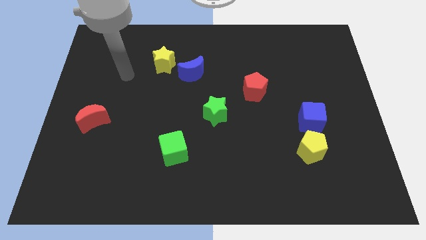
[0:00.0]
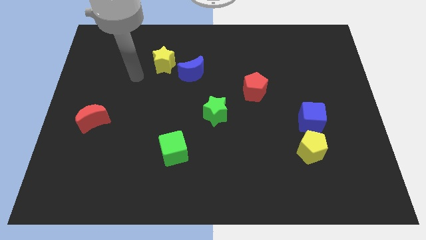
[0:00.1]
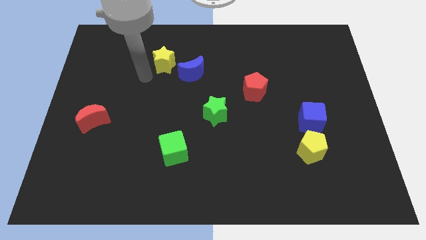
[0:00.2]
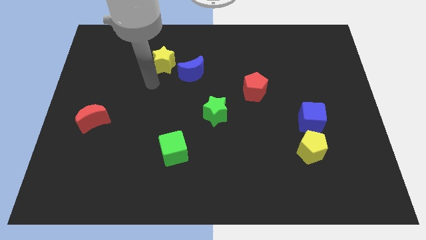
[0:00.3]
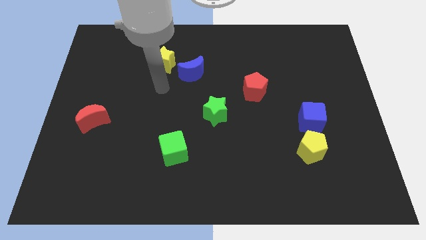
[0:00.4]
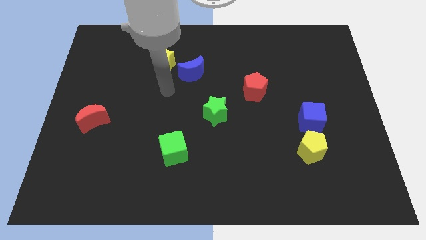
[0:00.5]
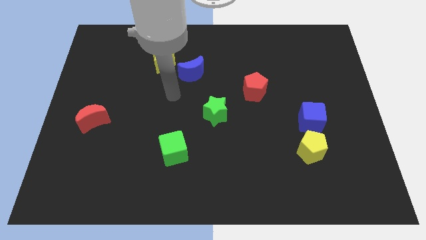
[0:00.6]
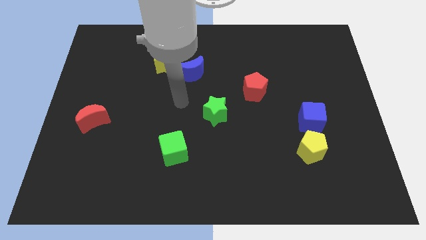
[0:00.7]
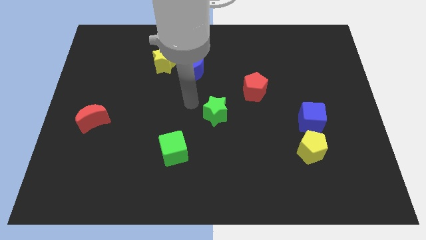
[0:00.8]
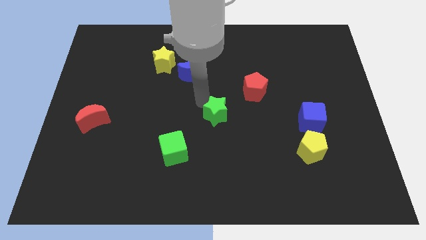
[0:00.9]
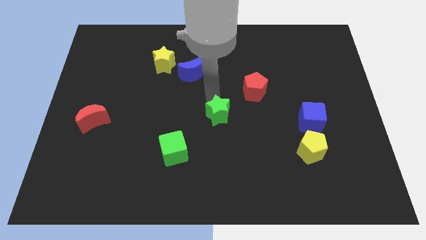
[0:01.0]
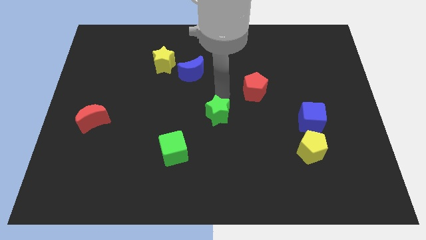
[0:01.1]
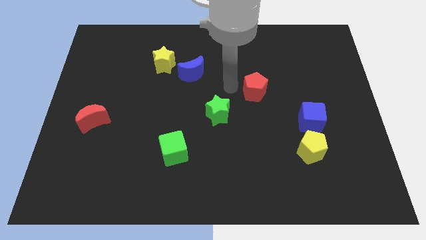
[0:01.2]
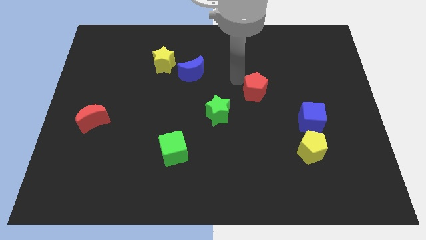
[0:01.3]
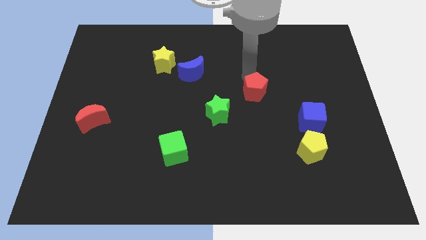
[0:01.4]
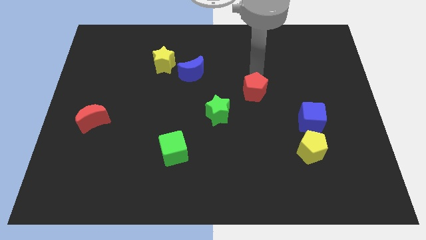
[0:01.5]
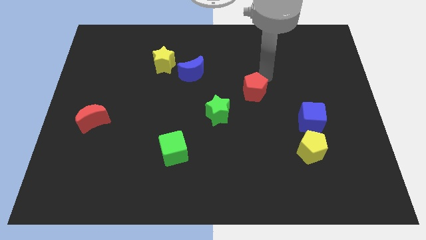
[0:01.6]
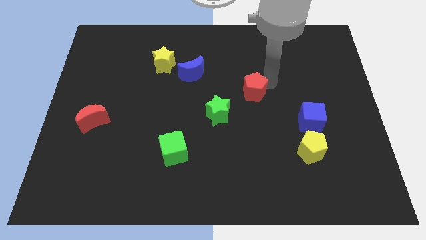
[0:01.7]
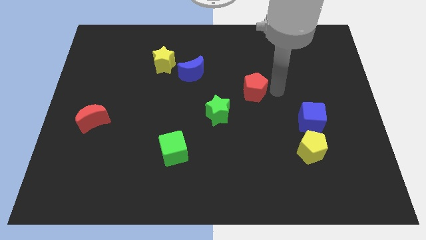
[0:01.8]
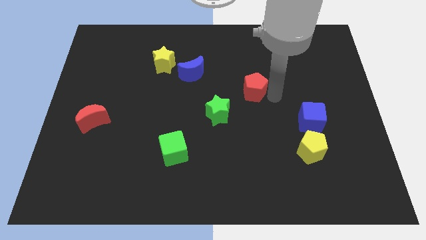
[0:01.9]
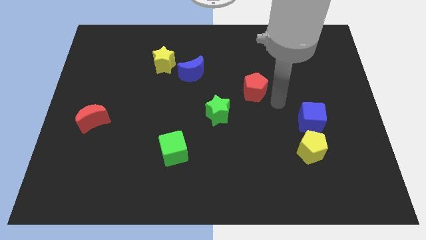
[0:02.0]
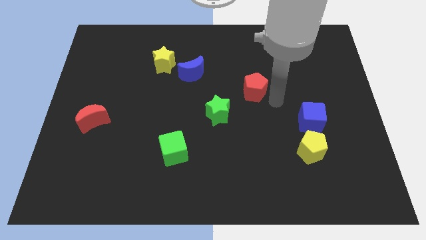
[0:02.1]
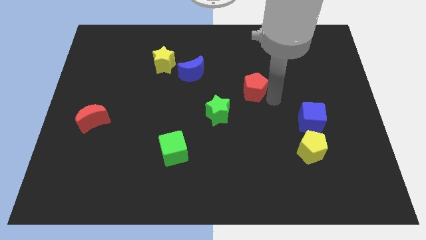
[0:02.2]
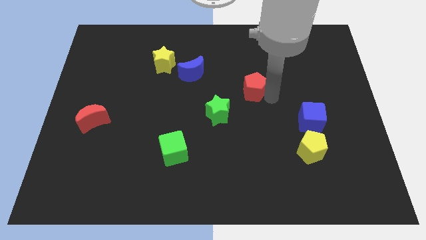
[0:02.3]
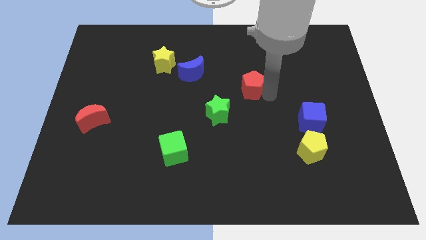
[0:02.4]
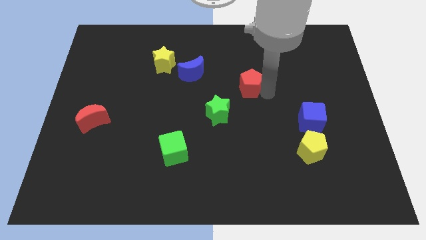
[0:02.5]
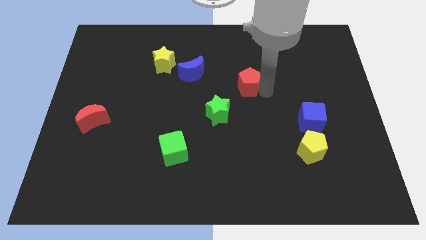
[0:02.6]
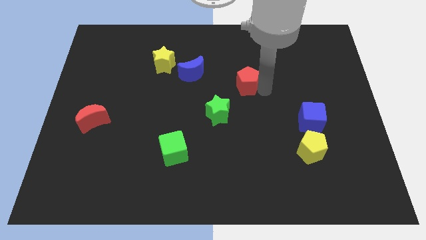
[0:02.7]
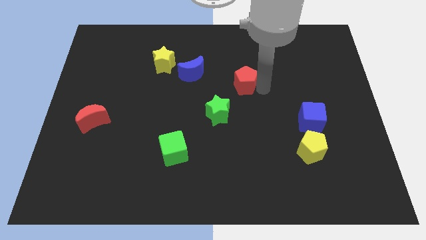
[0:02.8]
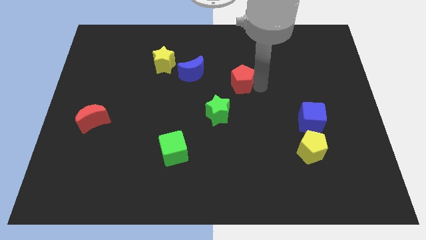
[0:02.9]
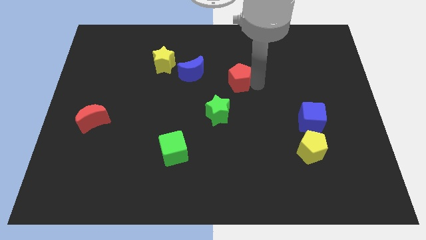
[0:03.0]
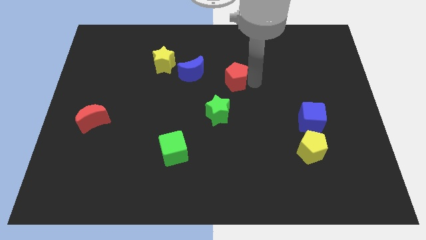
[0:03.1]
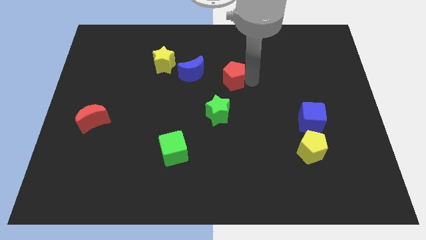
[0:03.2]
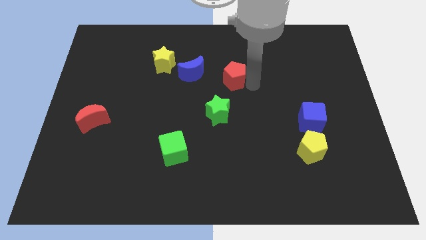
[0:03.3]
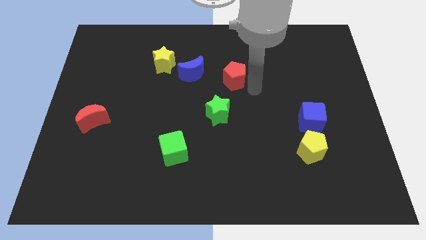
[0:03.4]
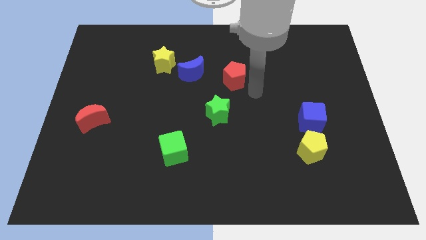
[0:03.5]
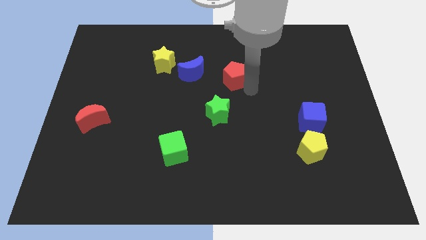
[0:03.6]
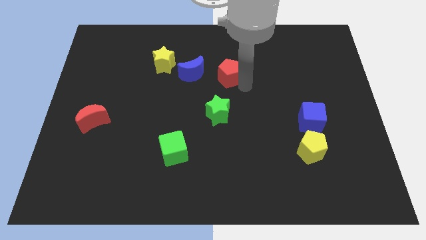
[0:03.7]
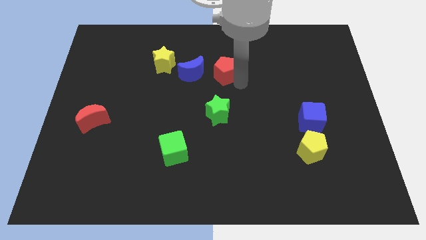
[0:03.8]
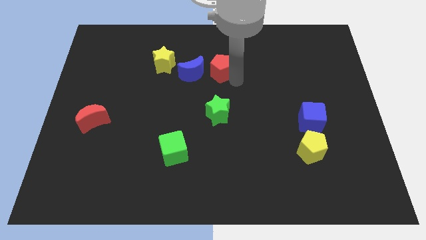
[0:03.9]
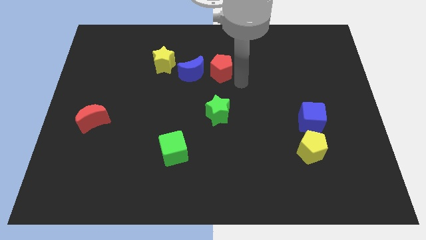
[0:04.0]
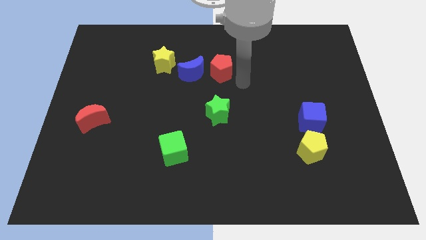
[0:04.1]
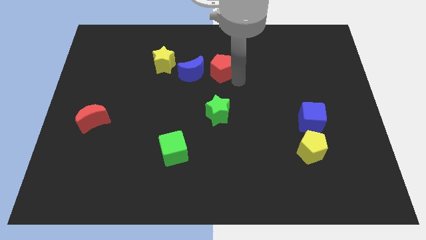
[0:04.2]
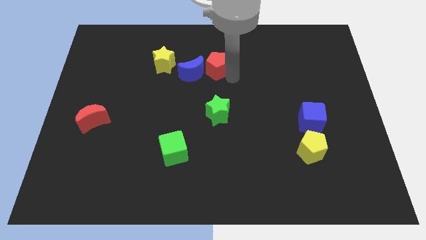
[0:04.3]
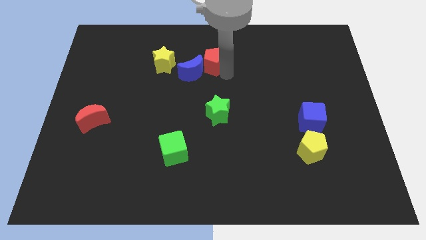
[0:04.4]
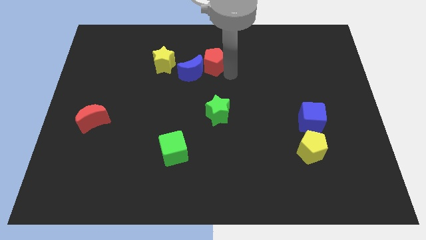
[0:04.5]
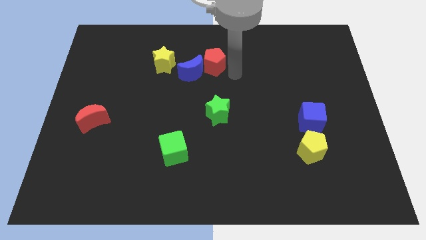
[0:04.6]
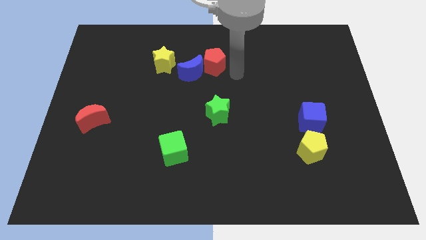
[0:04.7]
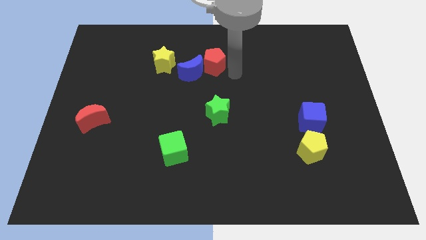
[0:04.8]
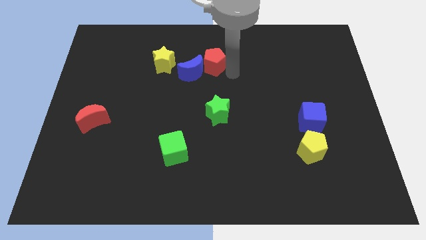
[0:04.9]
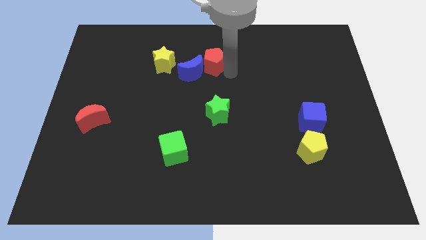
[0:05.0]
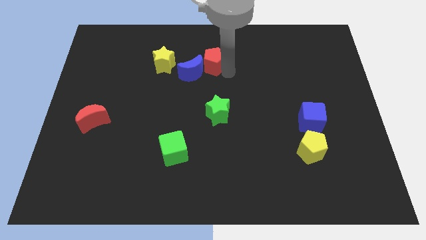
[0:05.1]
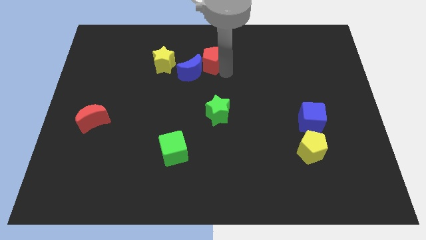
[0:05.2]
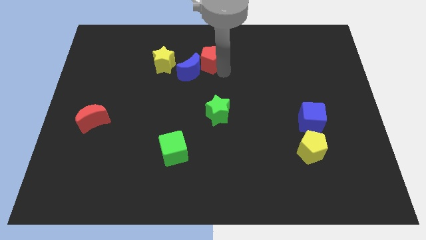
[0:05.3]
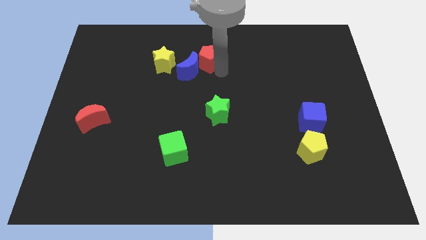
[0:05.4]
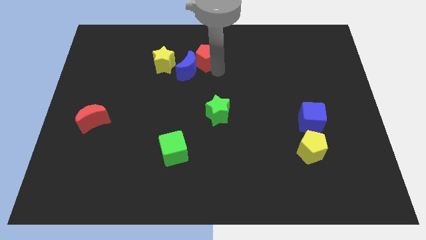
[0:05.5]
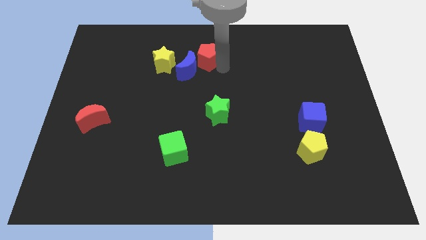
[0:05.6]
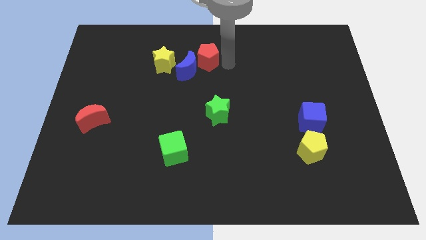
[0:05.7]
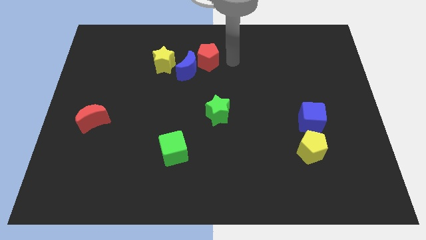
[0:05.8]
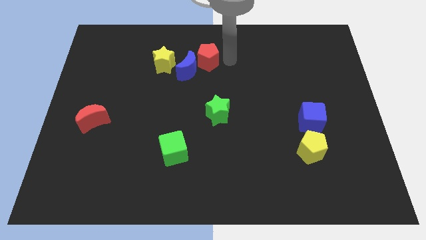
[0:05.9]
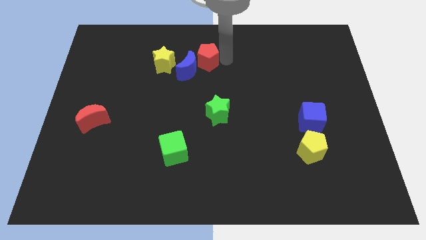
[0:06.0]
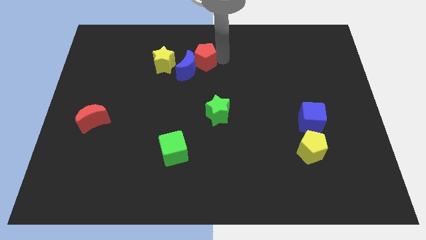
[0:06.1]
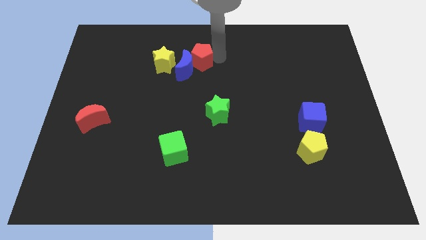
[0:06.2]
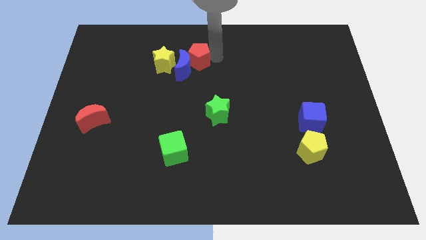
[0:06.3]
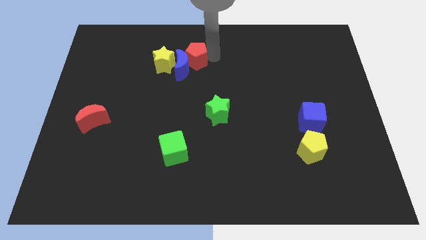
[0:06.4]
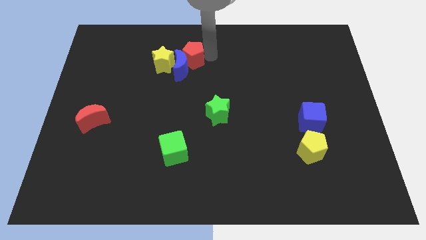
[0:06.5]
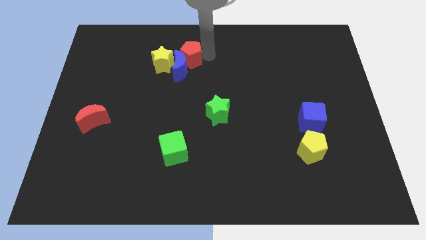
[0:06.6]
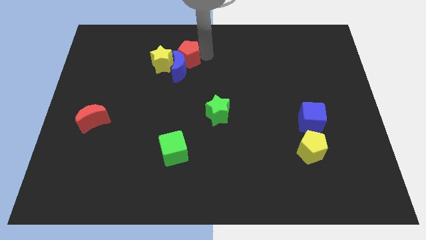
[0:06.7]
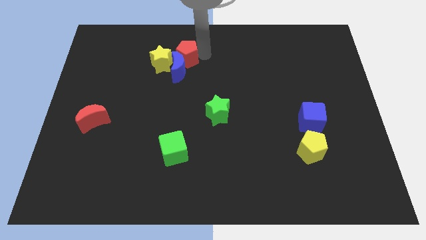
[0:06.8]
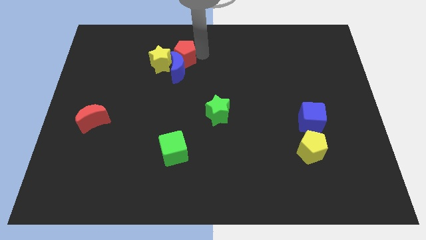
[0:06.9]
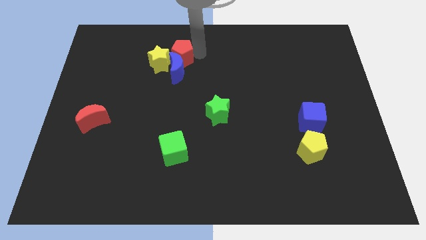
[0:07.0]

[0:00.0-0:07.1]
put the red pentagon close to the yellow star
